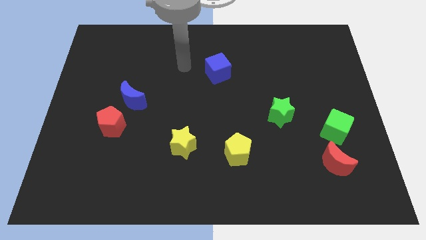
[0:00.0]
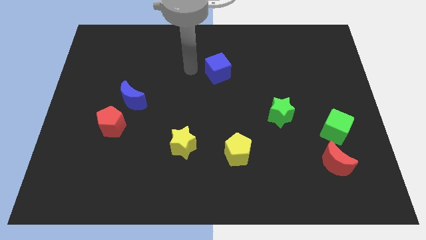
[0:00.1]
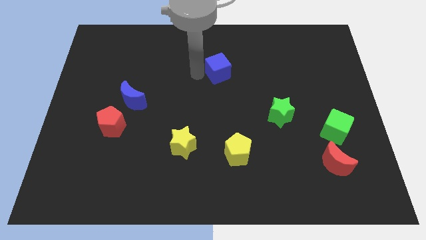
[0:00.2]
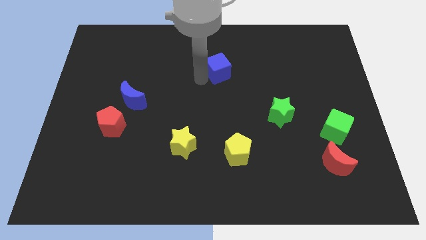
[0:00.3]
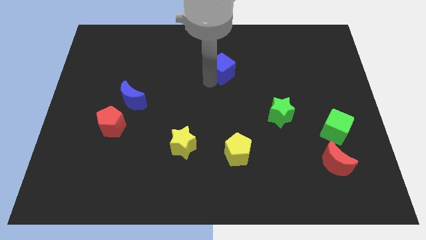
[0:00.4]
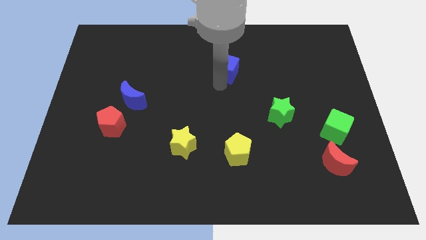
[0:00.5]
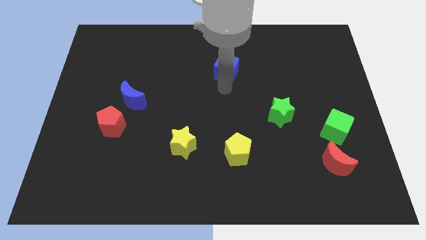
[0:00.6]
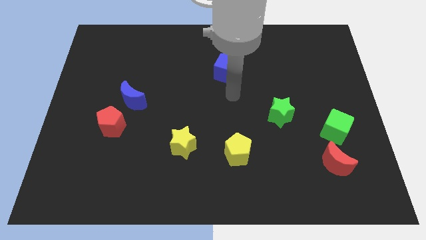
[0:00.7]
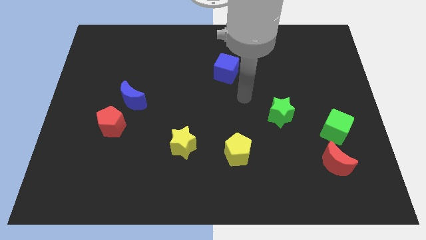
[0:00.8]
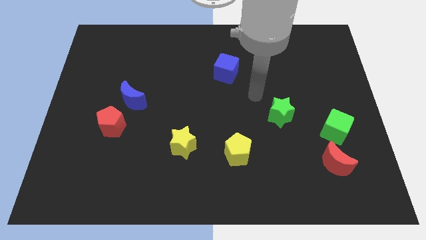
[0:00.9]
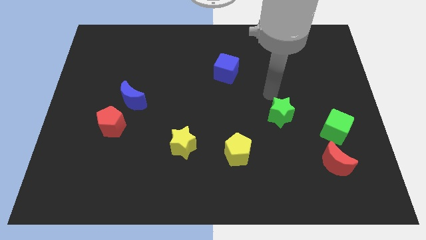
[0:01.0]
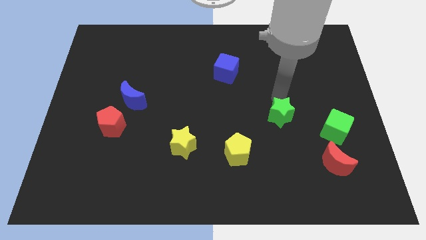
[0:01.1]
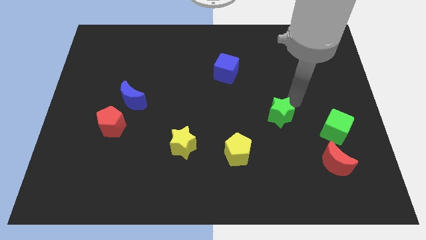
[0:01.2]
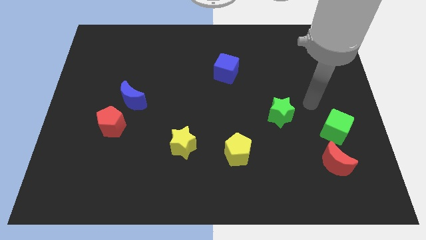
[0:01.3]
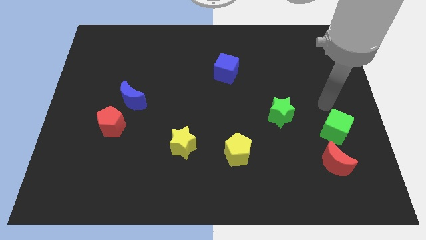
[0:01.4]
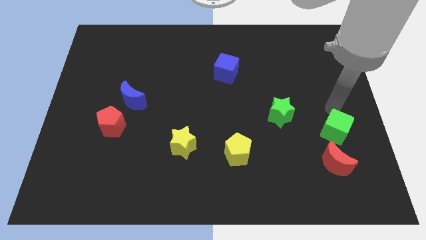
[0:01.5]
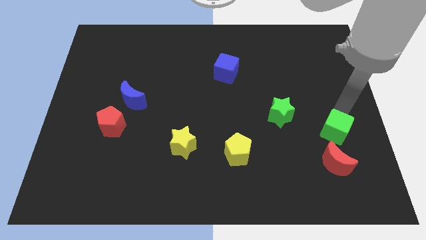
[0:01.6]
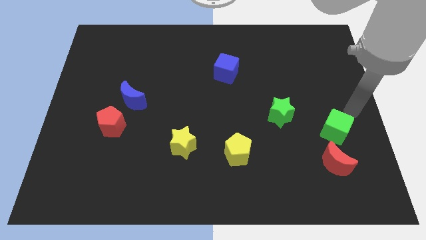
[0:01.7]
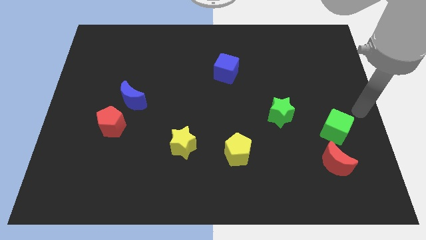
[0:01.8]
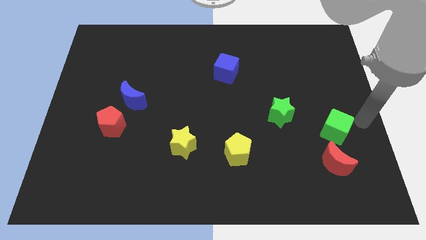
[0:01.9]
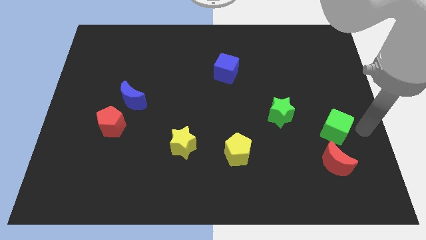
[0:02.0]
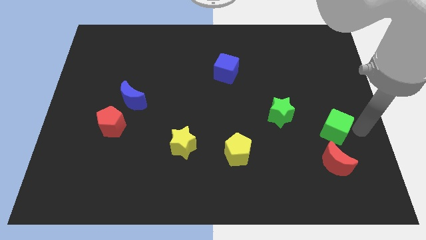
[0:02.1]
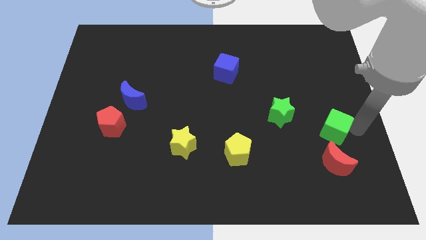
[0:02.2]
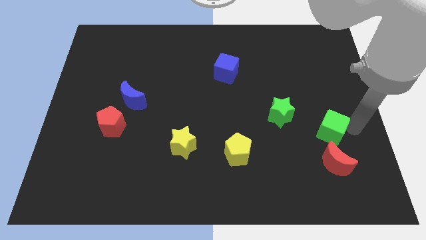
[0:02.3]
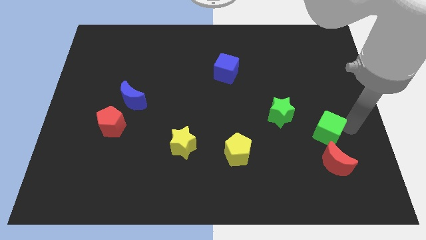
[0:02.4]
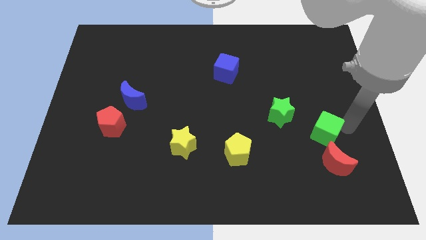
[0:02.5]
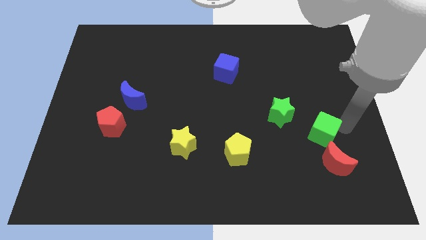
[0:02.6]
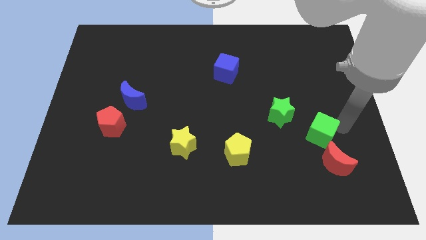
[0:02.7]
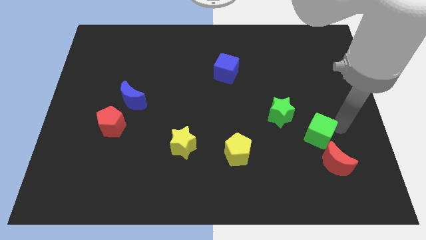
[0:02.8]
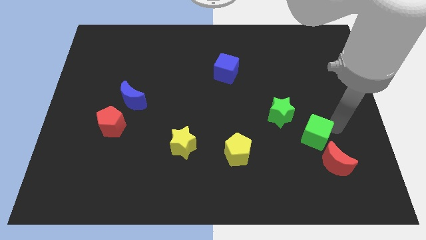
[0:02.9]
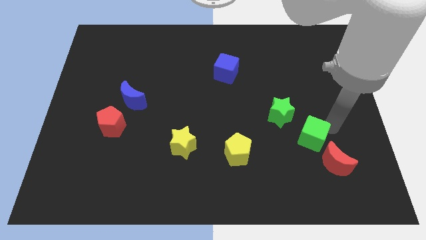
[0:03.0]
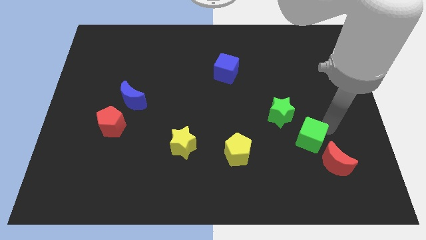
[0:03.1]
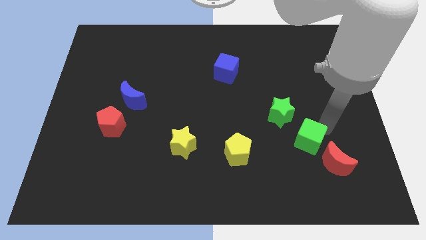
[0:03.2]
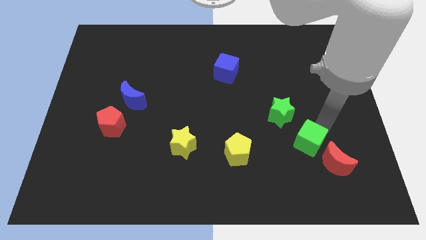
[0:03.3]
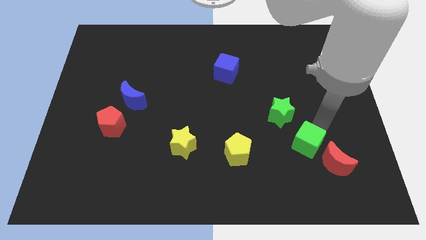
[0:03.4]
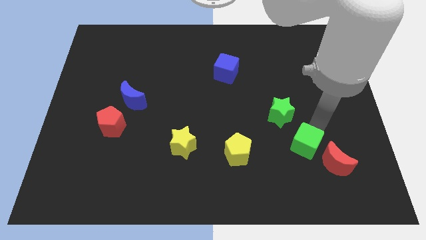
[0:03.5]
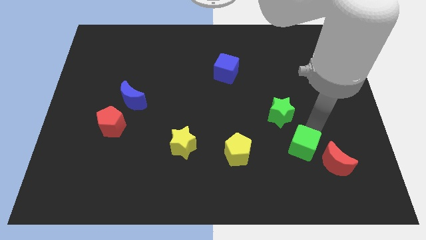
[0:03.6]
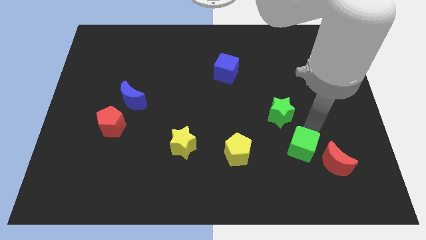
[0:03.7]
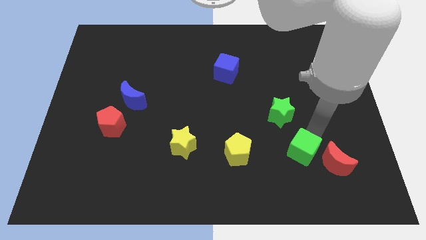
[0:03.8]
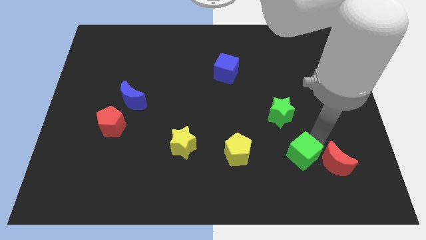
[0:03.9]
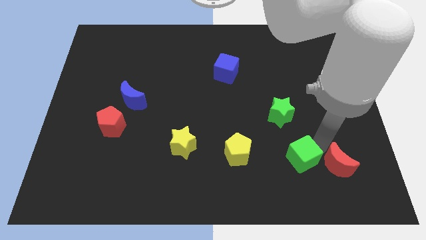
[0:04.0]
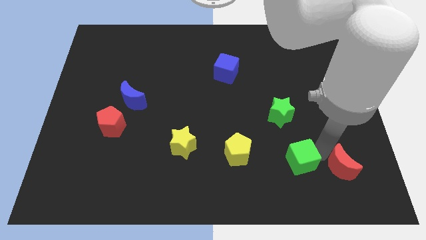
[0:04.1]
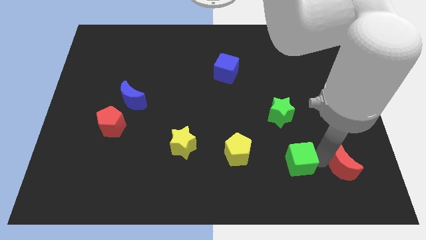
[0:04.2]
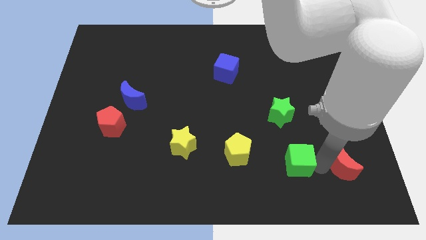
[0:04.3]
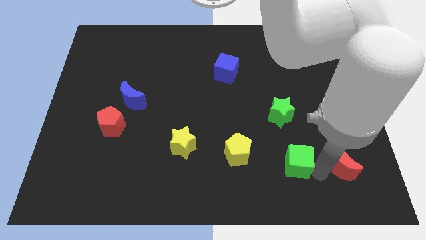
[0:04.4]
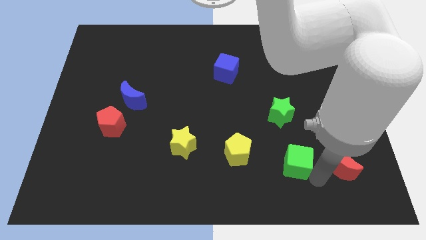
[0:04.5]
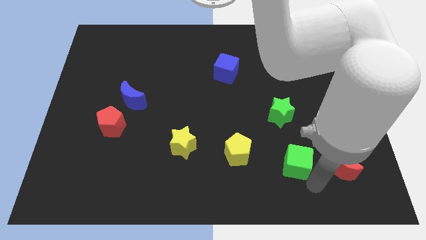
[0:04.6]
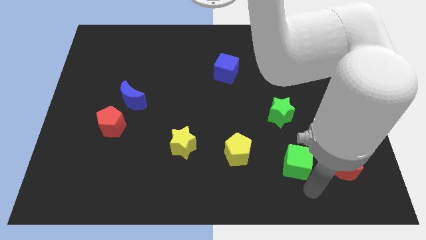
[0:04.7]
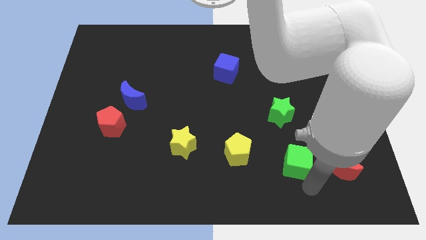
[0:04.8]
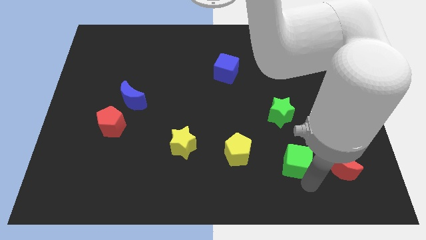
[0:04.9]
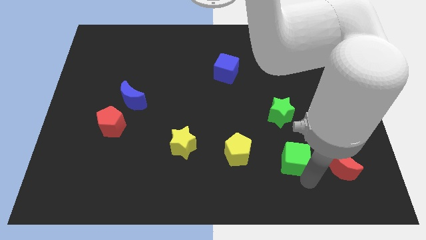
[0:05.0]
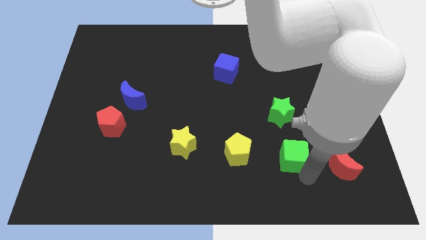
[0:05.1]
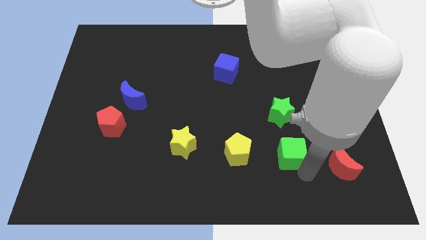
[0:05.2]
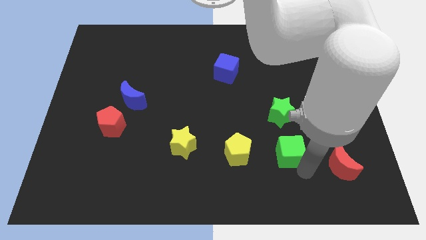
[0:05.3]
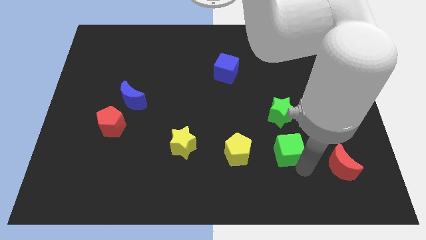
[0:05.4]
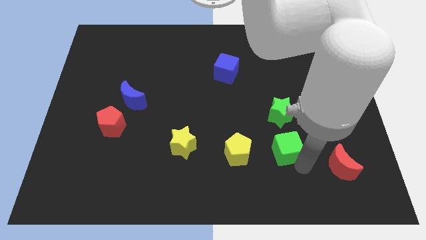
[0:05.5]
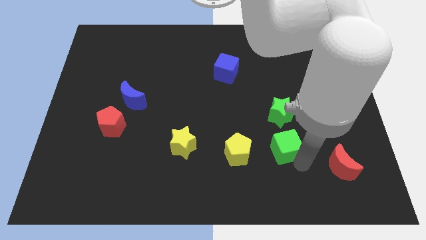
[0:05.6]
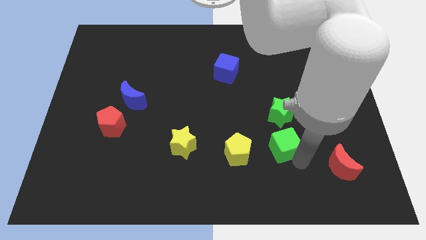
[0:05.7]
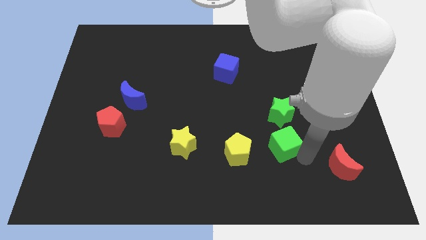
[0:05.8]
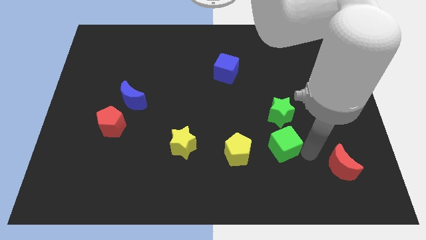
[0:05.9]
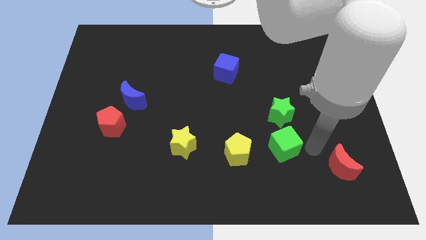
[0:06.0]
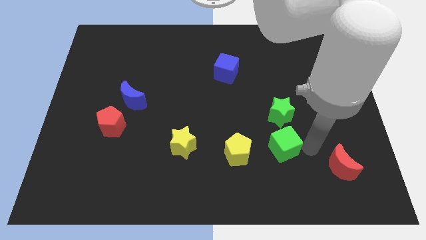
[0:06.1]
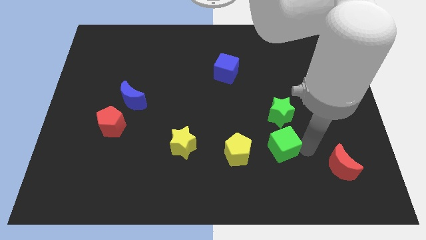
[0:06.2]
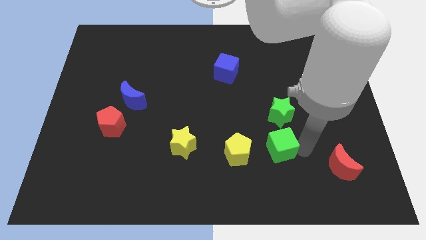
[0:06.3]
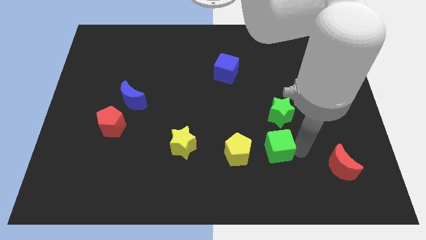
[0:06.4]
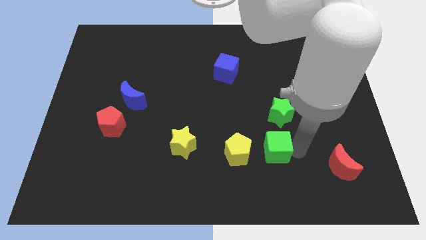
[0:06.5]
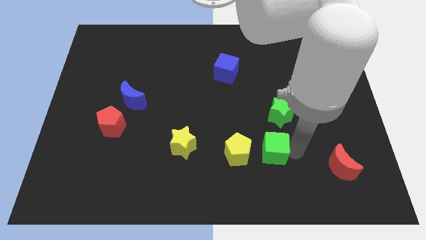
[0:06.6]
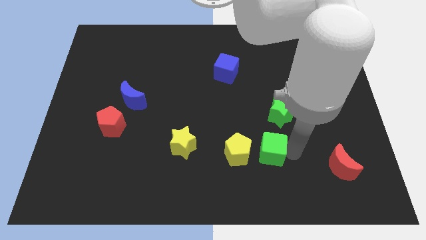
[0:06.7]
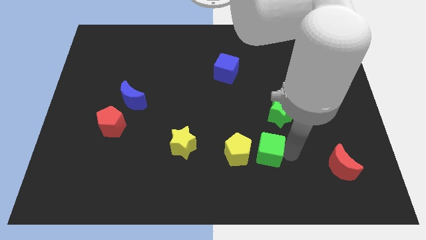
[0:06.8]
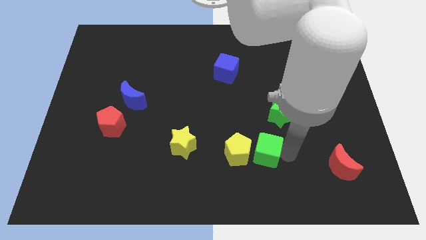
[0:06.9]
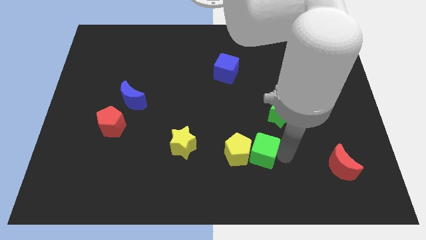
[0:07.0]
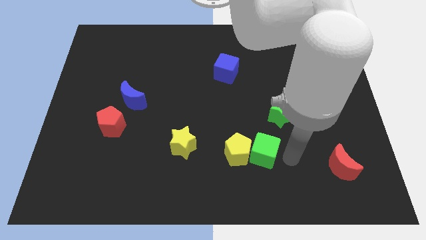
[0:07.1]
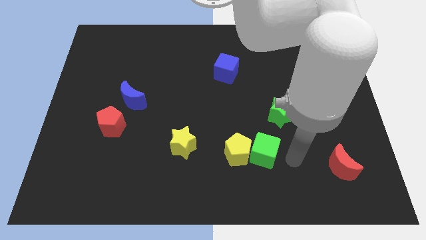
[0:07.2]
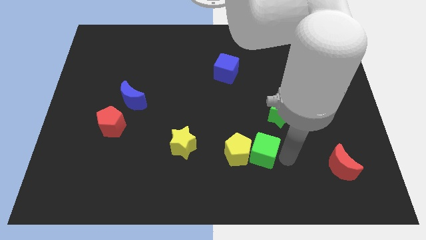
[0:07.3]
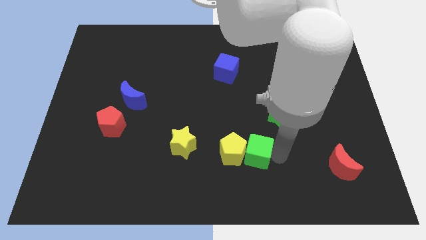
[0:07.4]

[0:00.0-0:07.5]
push the green cube to the right of the yellow star

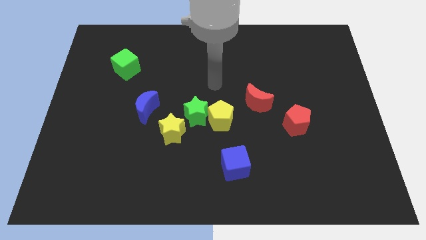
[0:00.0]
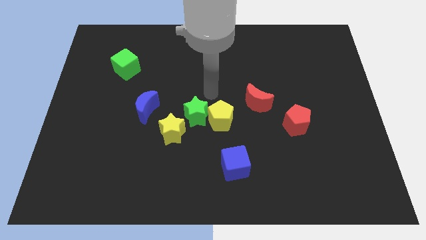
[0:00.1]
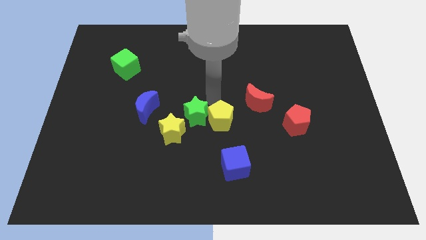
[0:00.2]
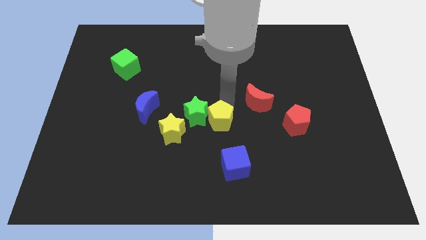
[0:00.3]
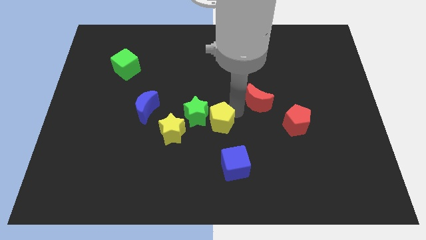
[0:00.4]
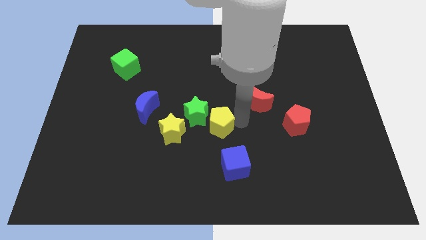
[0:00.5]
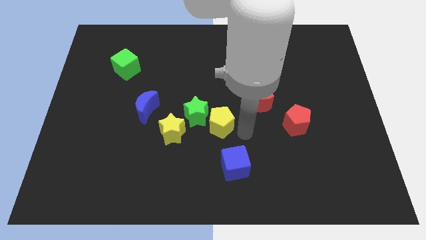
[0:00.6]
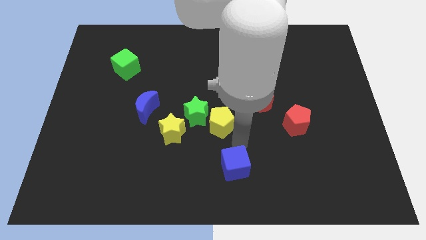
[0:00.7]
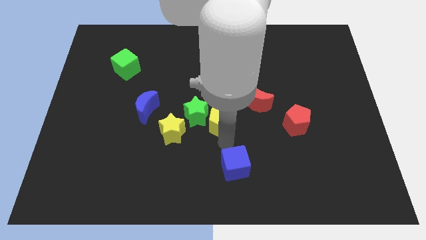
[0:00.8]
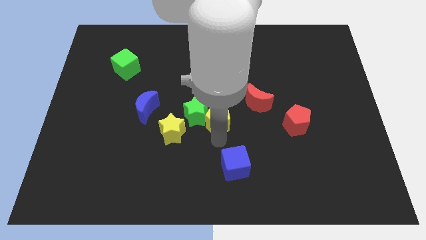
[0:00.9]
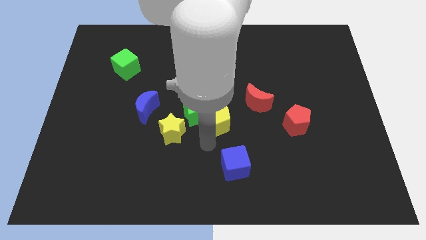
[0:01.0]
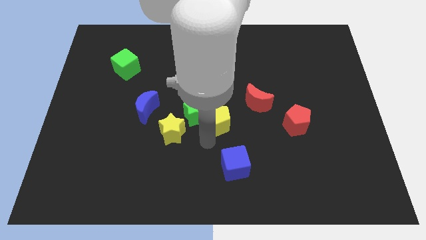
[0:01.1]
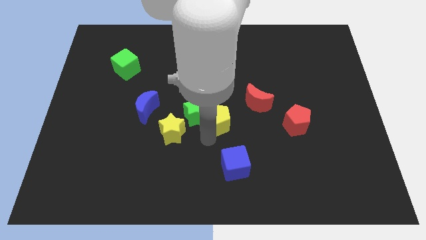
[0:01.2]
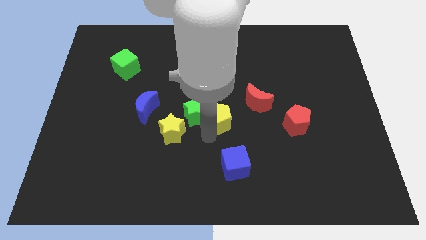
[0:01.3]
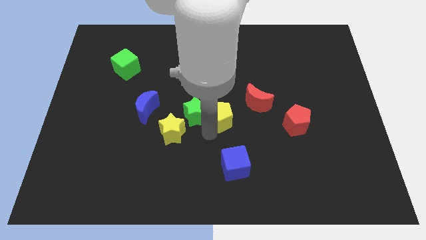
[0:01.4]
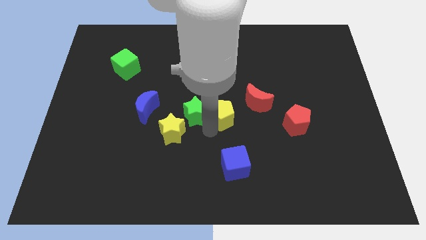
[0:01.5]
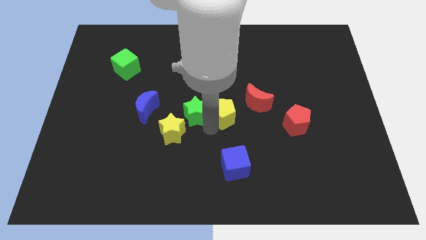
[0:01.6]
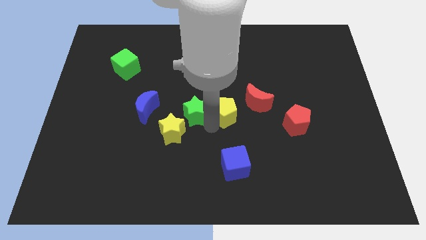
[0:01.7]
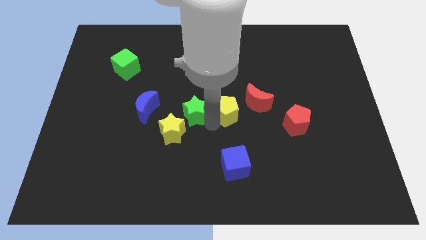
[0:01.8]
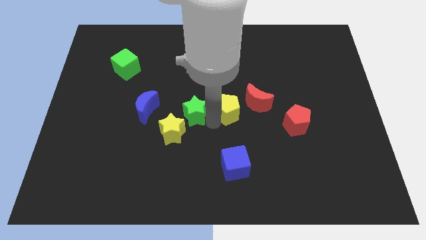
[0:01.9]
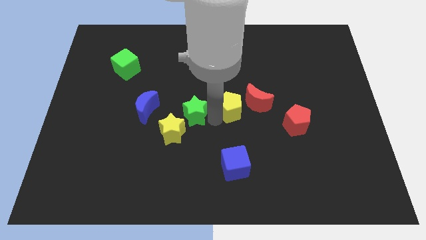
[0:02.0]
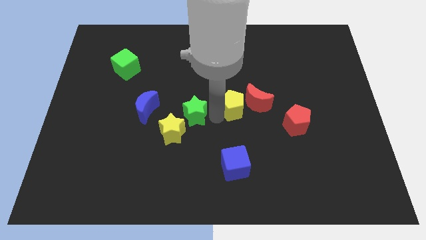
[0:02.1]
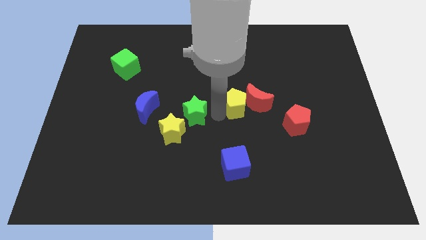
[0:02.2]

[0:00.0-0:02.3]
slide the yellow pentagon to the top left of the red moon
